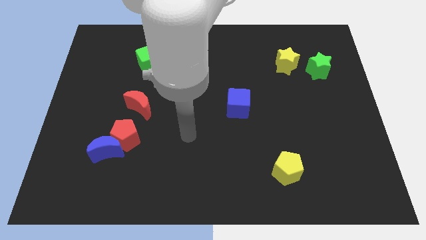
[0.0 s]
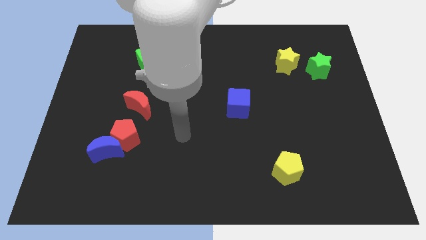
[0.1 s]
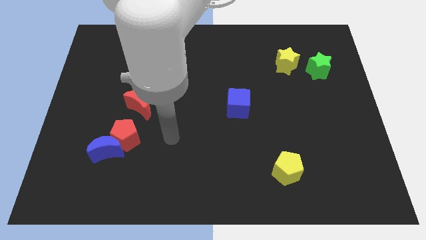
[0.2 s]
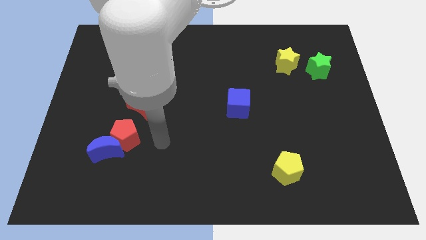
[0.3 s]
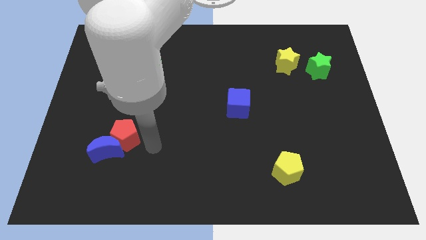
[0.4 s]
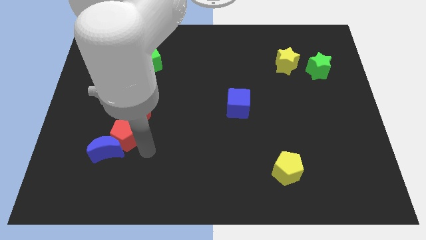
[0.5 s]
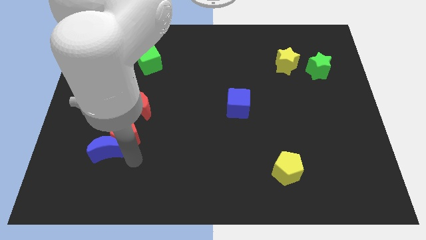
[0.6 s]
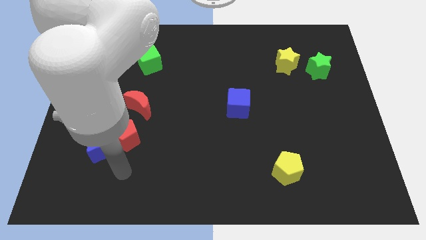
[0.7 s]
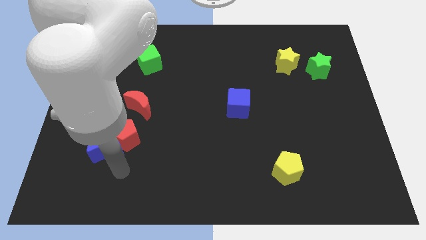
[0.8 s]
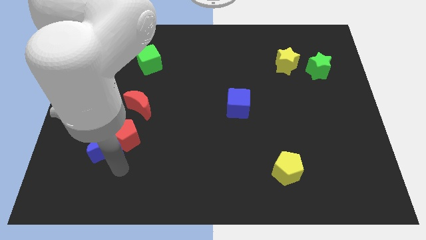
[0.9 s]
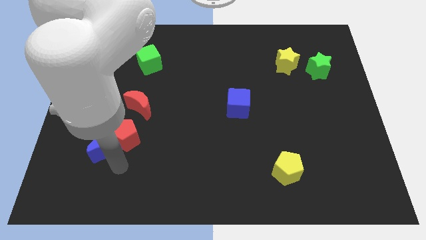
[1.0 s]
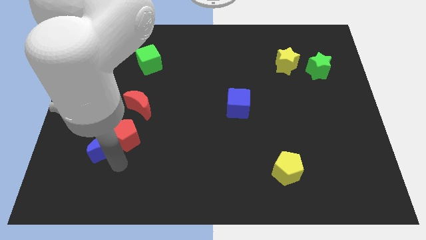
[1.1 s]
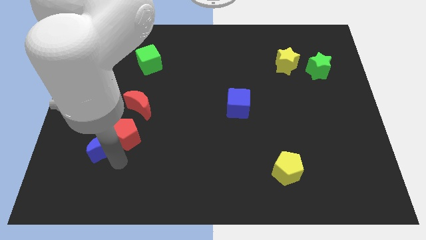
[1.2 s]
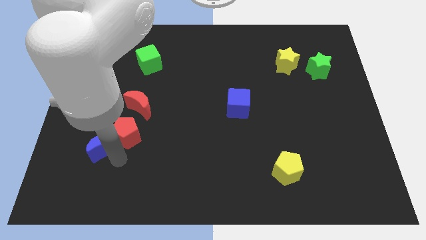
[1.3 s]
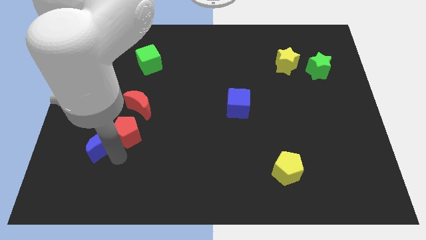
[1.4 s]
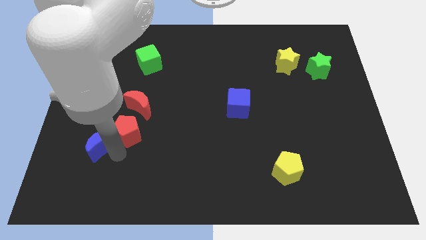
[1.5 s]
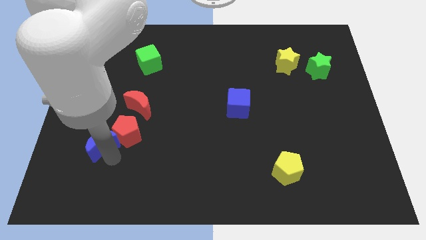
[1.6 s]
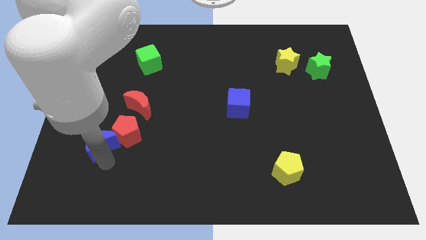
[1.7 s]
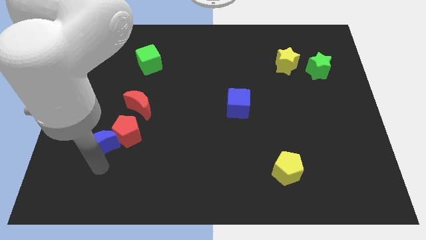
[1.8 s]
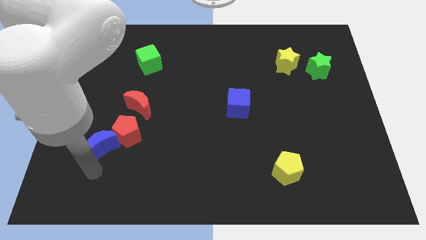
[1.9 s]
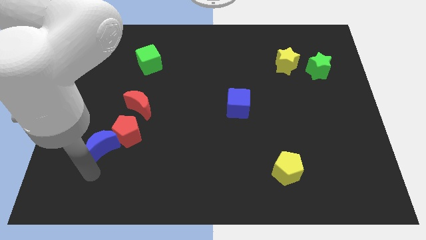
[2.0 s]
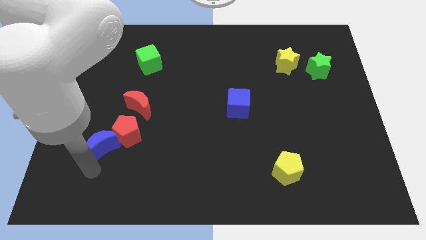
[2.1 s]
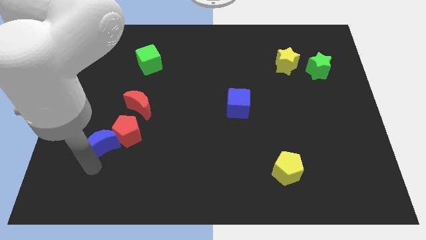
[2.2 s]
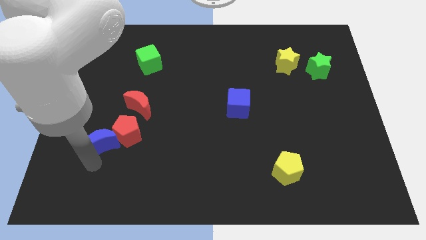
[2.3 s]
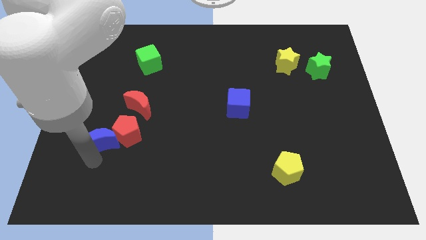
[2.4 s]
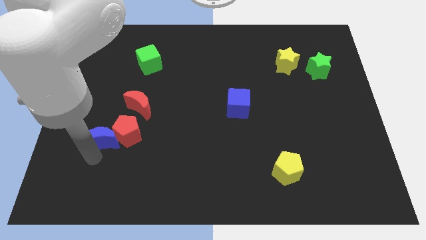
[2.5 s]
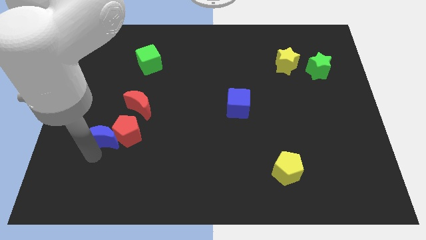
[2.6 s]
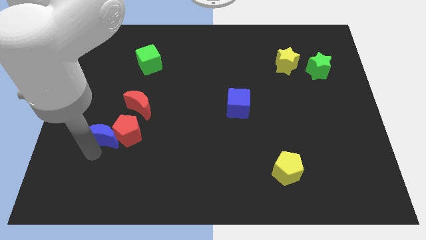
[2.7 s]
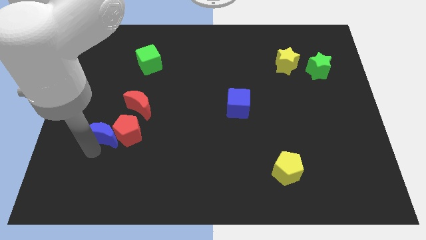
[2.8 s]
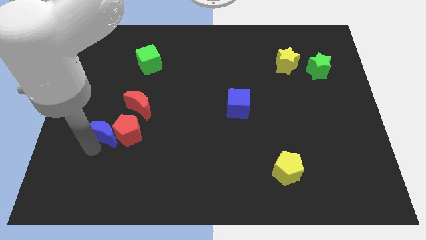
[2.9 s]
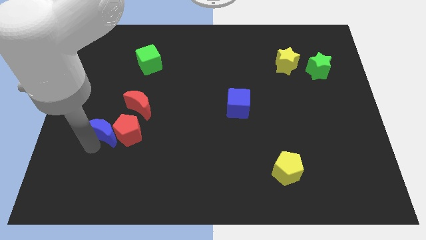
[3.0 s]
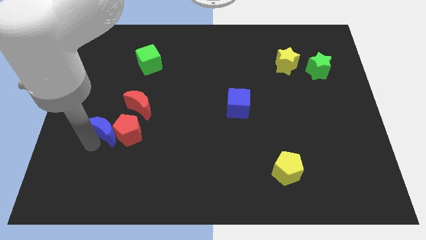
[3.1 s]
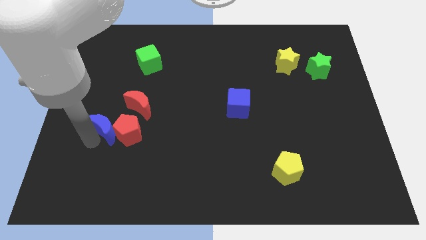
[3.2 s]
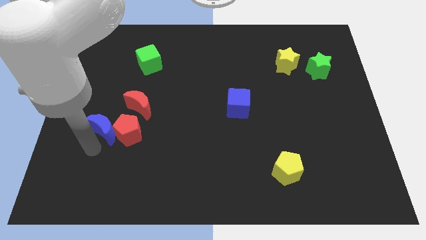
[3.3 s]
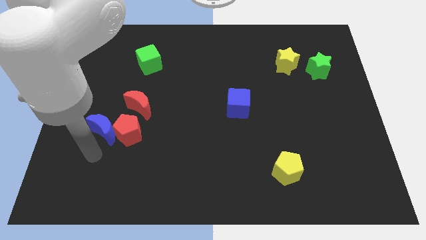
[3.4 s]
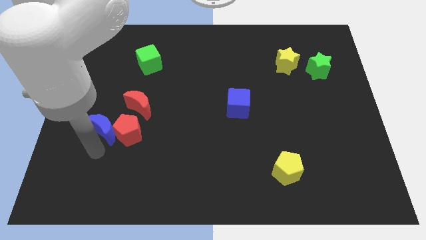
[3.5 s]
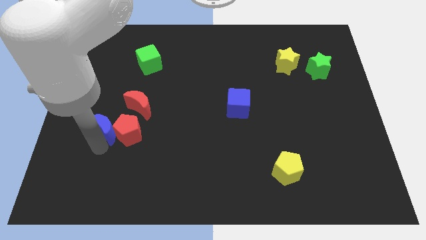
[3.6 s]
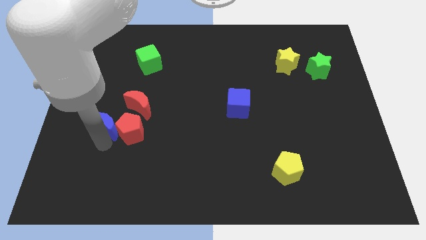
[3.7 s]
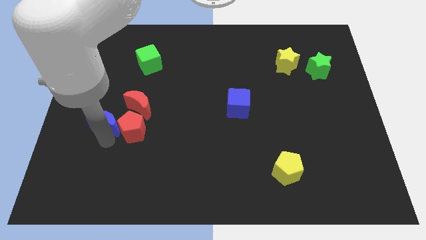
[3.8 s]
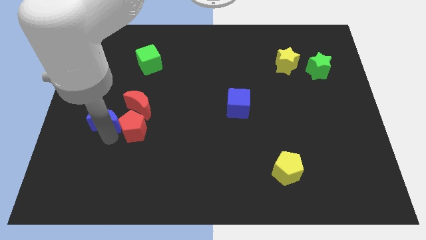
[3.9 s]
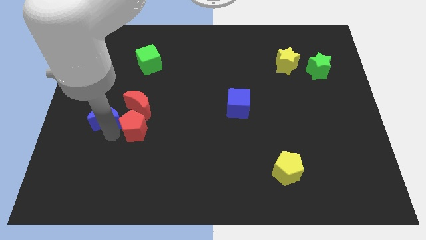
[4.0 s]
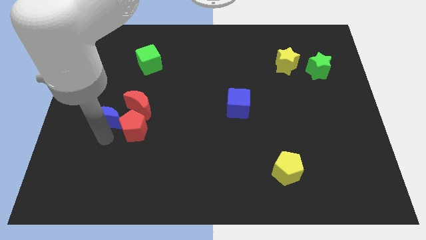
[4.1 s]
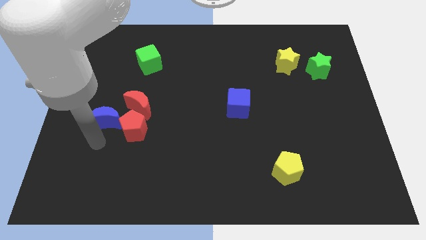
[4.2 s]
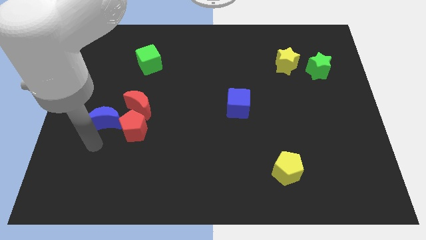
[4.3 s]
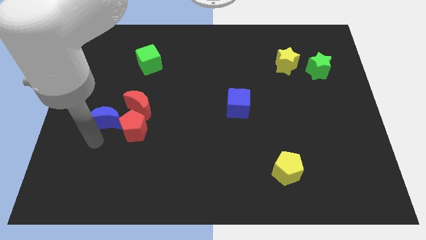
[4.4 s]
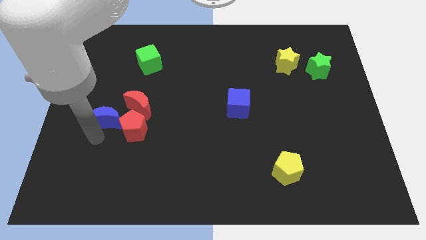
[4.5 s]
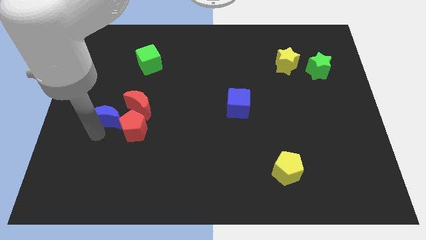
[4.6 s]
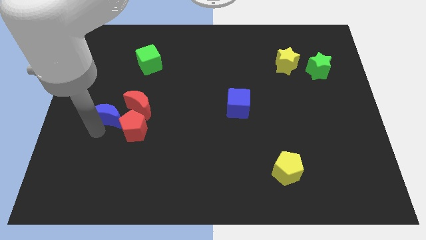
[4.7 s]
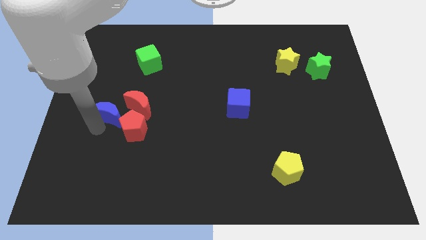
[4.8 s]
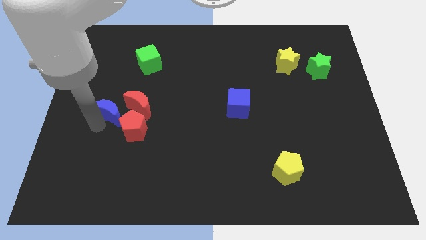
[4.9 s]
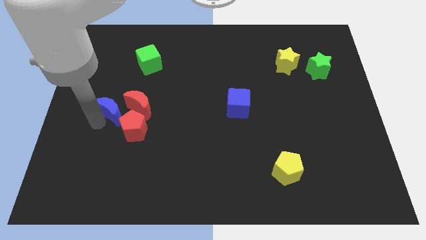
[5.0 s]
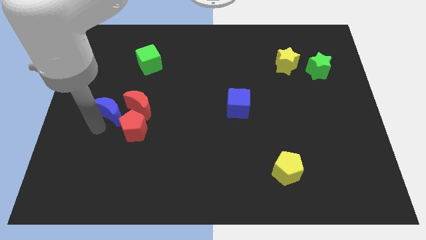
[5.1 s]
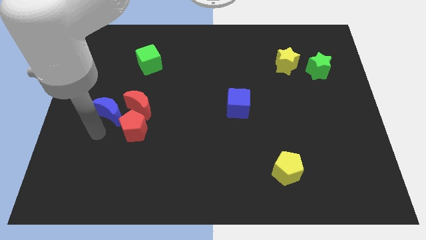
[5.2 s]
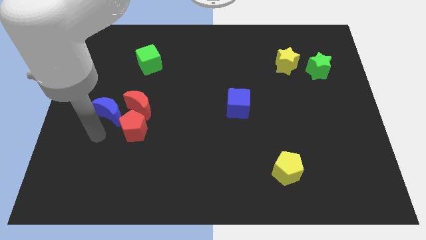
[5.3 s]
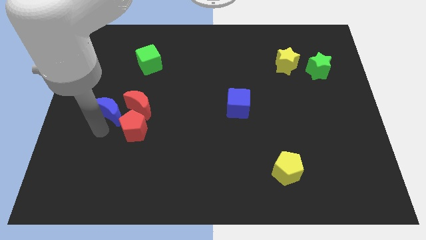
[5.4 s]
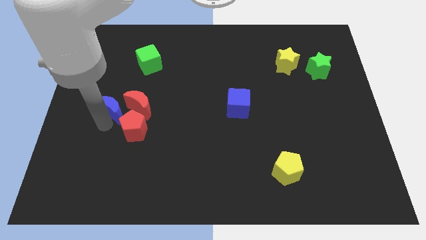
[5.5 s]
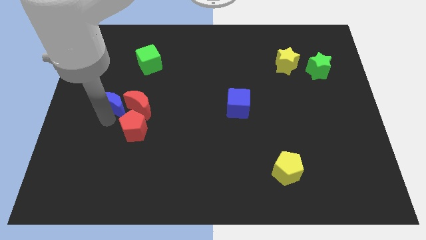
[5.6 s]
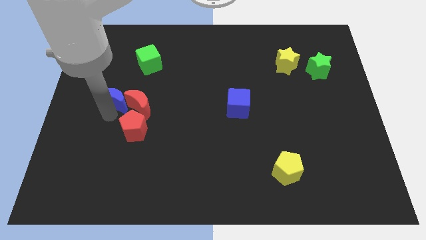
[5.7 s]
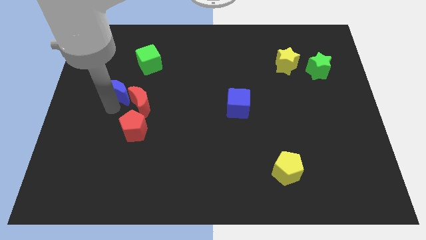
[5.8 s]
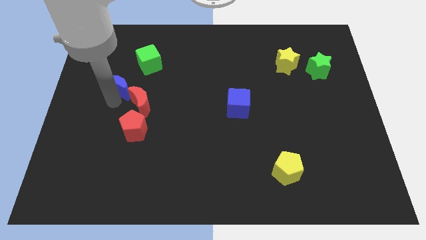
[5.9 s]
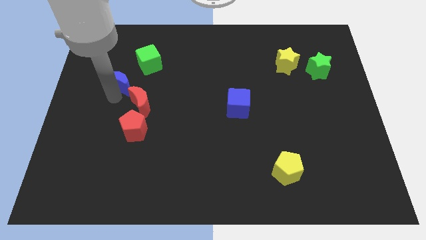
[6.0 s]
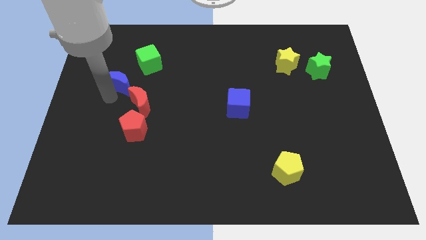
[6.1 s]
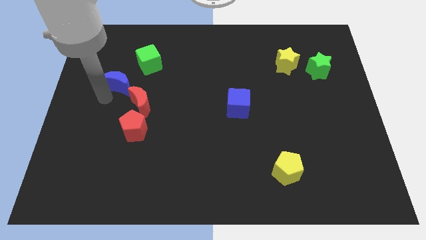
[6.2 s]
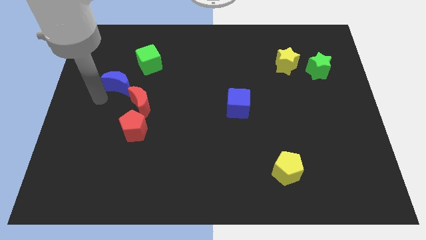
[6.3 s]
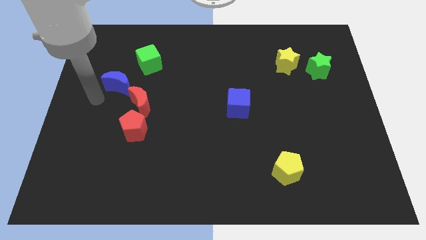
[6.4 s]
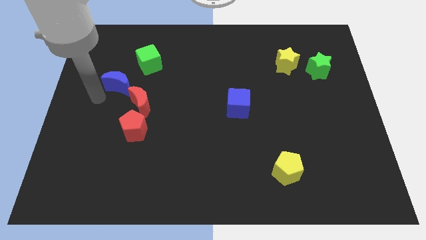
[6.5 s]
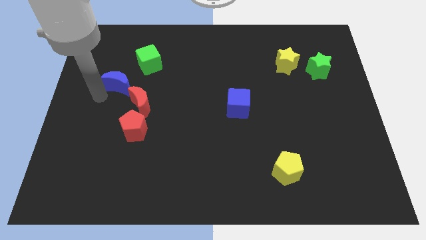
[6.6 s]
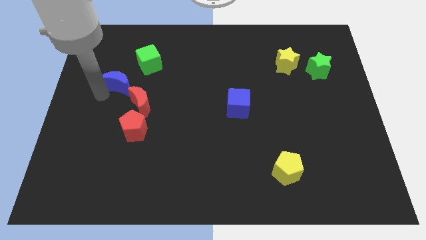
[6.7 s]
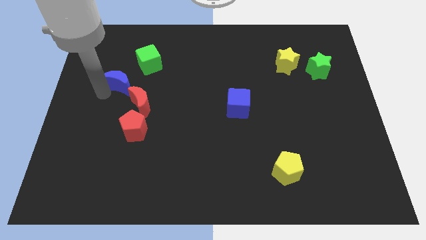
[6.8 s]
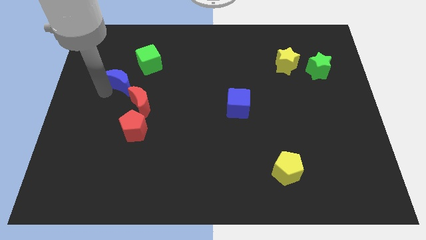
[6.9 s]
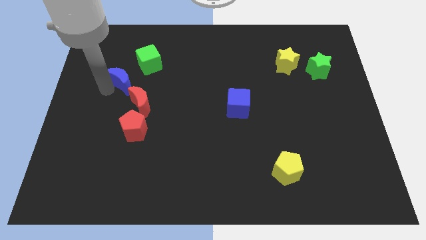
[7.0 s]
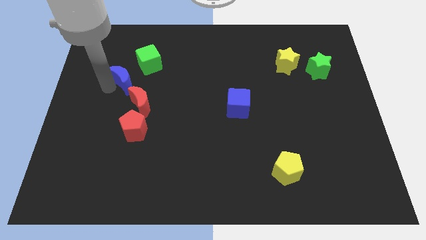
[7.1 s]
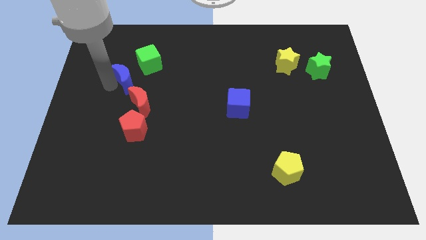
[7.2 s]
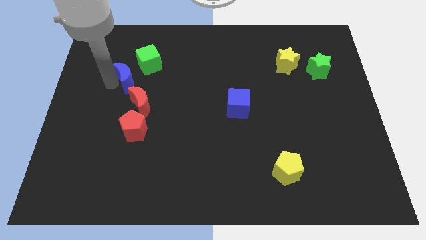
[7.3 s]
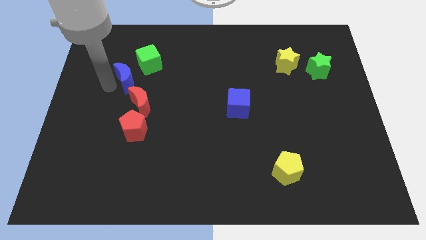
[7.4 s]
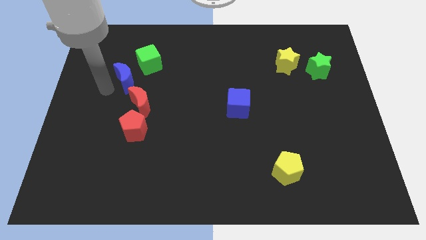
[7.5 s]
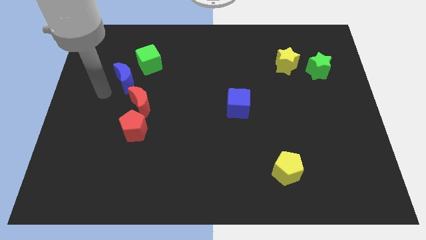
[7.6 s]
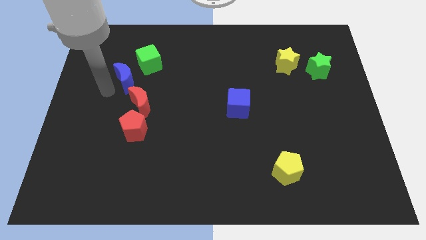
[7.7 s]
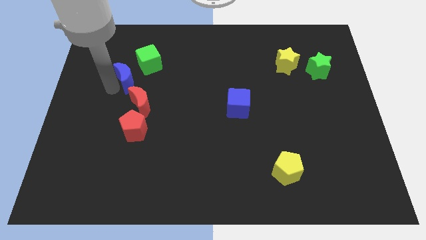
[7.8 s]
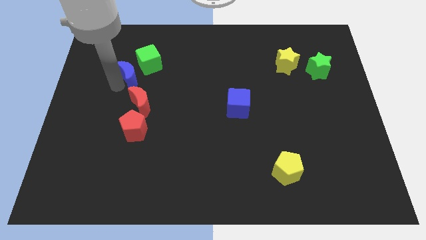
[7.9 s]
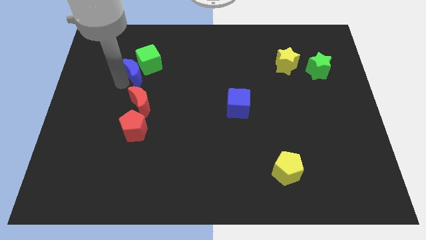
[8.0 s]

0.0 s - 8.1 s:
put the blue moon to the green cube
